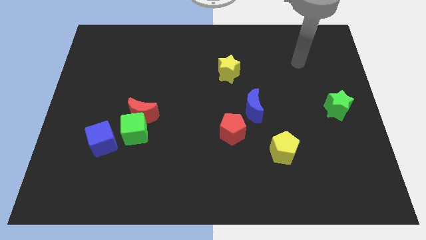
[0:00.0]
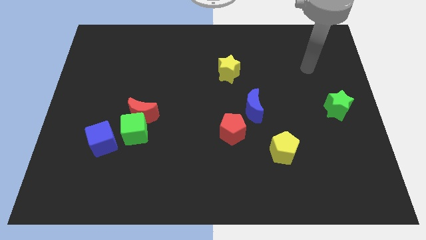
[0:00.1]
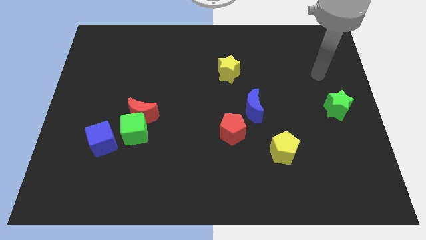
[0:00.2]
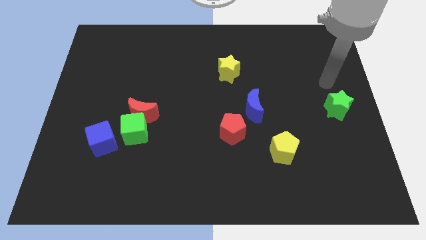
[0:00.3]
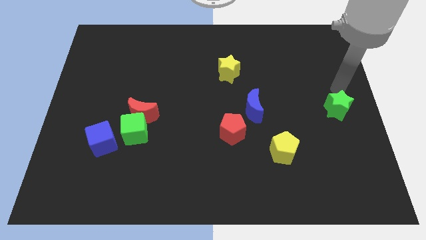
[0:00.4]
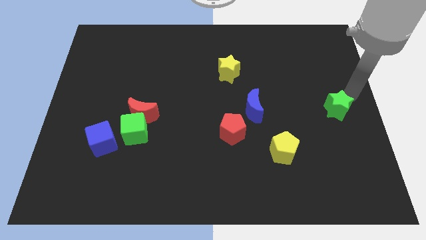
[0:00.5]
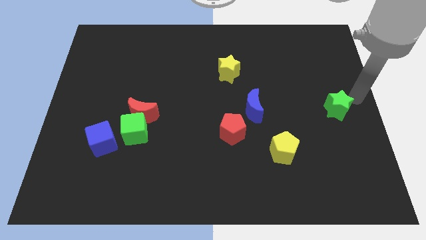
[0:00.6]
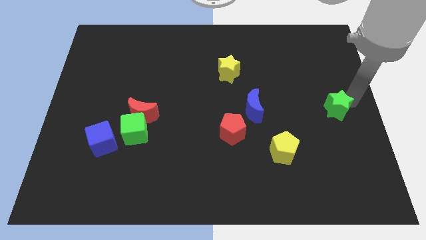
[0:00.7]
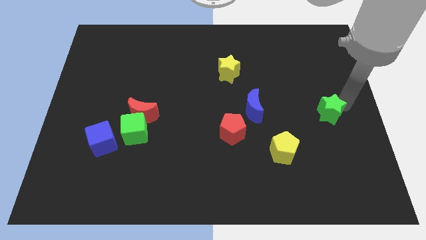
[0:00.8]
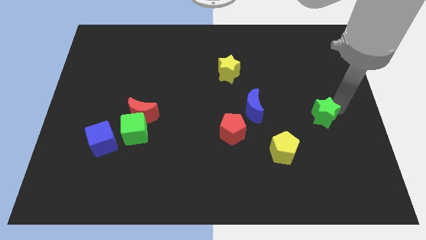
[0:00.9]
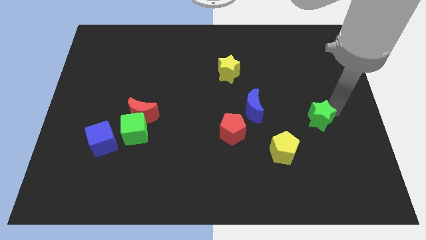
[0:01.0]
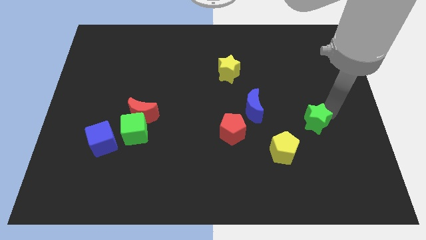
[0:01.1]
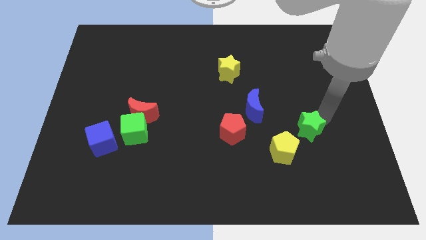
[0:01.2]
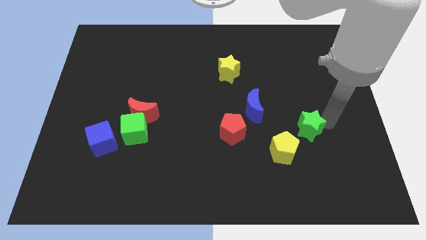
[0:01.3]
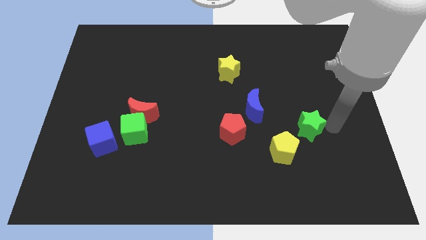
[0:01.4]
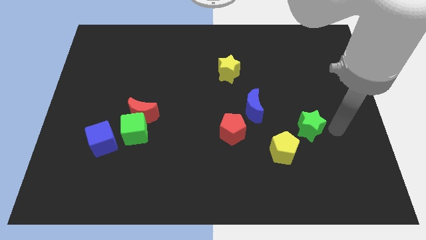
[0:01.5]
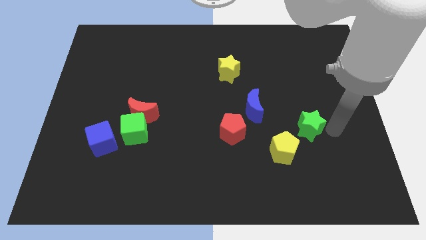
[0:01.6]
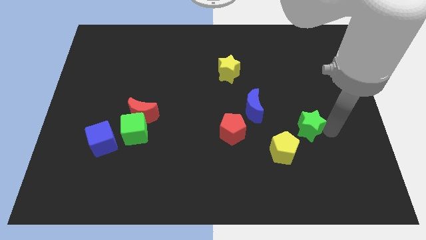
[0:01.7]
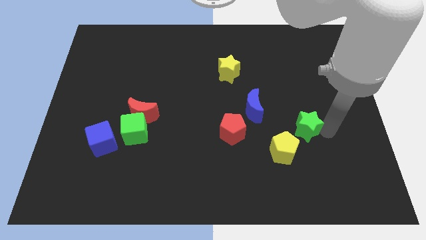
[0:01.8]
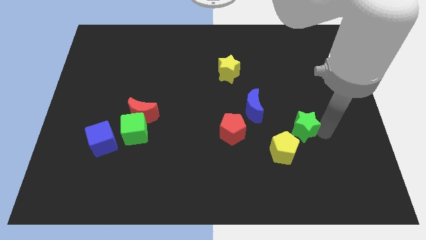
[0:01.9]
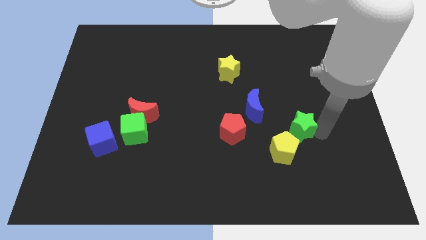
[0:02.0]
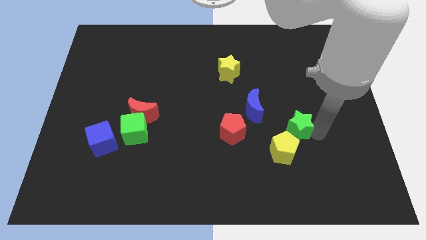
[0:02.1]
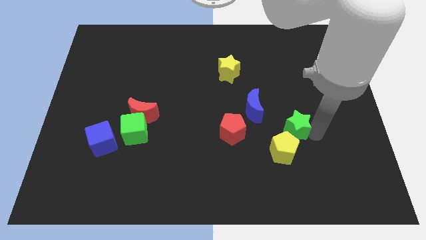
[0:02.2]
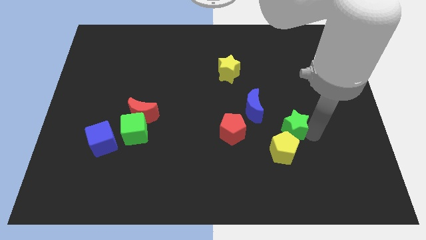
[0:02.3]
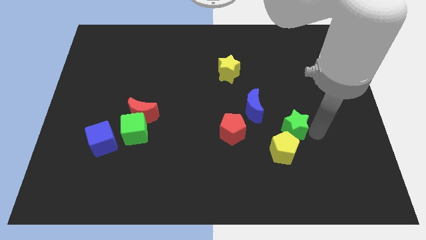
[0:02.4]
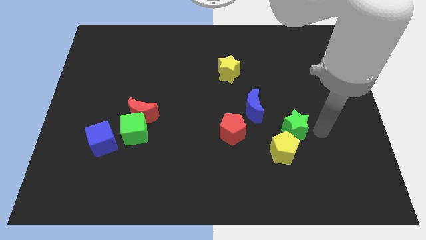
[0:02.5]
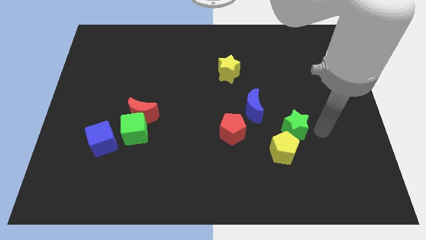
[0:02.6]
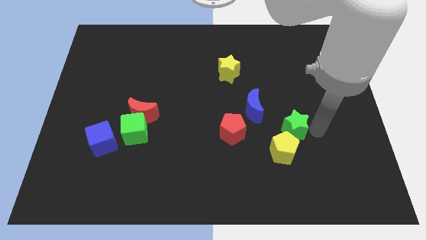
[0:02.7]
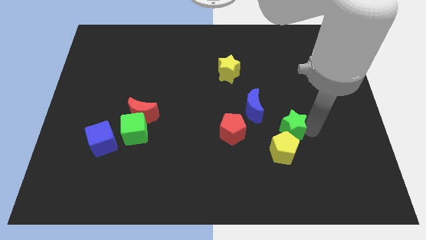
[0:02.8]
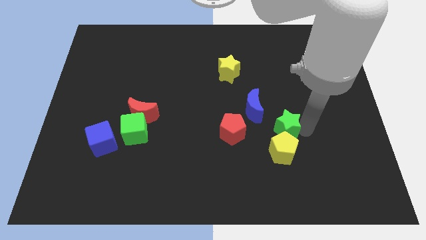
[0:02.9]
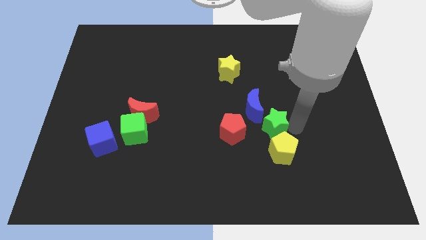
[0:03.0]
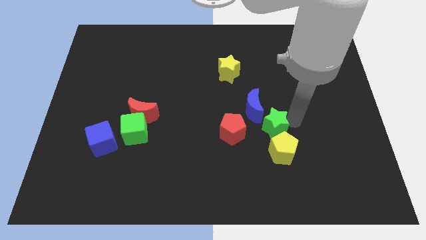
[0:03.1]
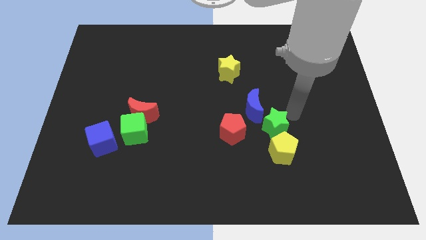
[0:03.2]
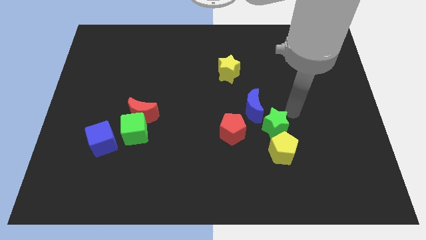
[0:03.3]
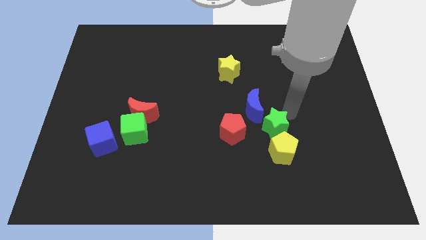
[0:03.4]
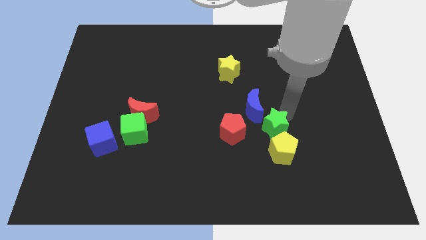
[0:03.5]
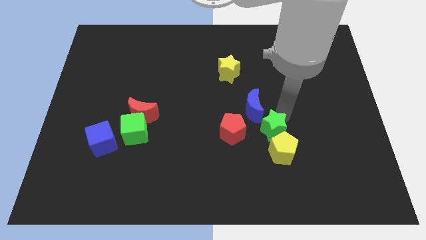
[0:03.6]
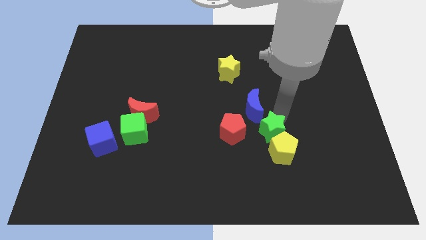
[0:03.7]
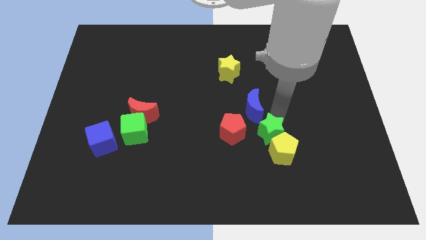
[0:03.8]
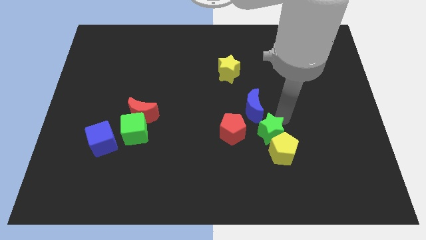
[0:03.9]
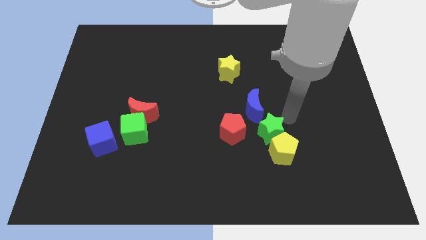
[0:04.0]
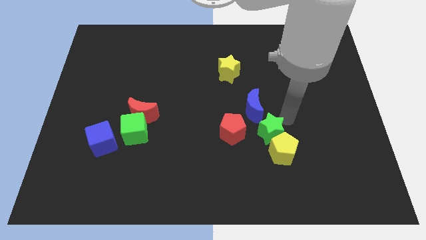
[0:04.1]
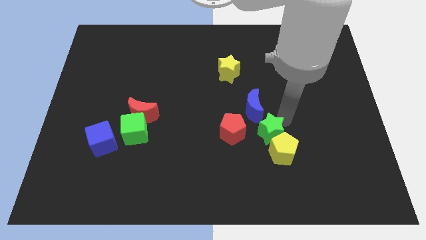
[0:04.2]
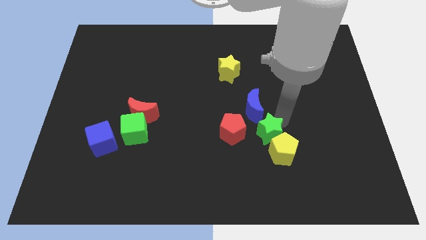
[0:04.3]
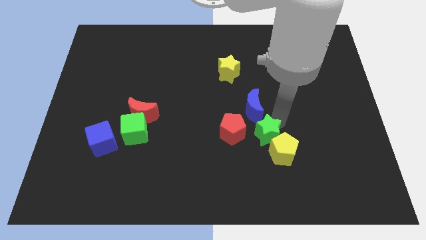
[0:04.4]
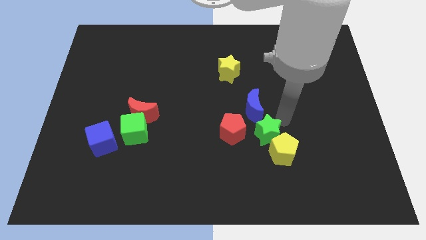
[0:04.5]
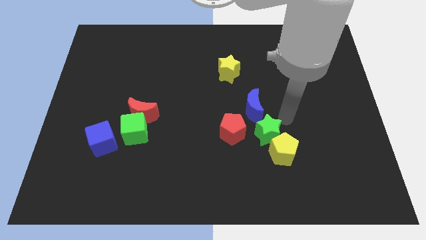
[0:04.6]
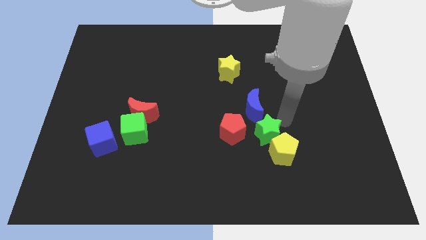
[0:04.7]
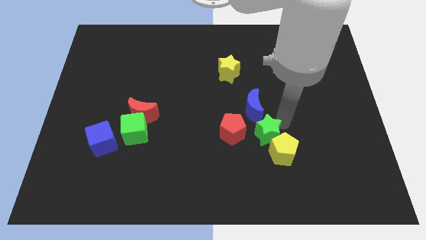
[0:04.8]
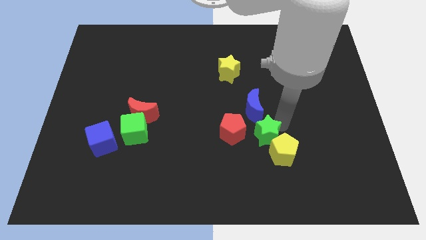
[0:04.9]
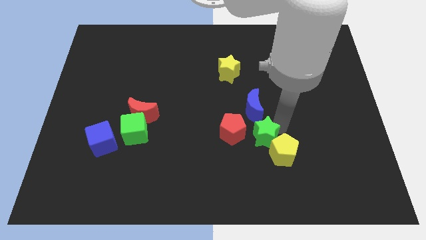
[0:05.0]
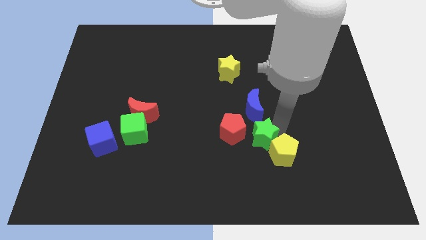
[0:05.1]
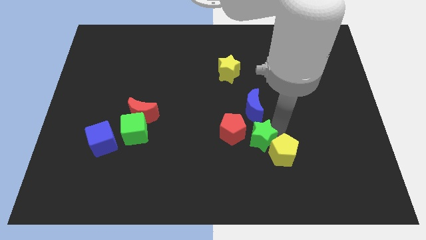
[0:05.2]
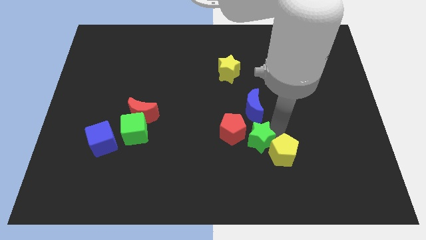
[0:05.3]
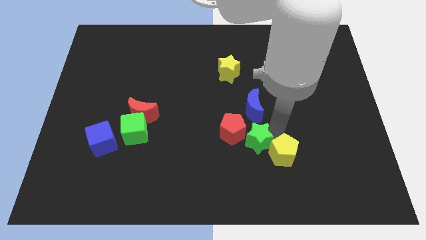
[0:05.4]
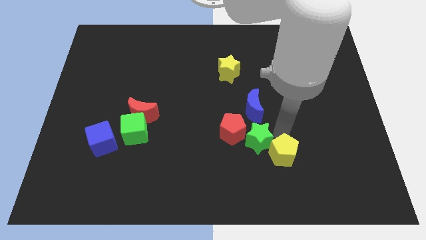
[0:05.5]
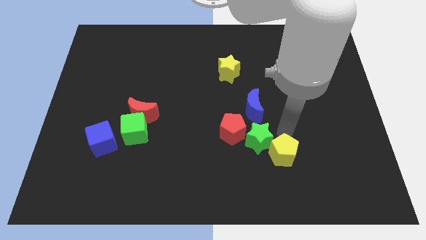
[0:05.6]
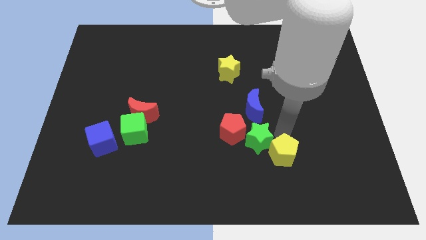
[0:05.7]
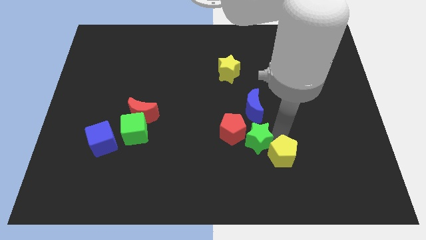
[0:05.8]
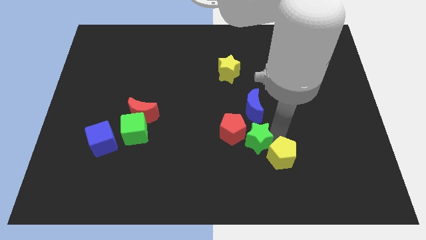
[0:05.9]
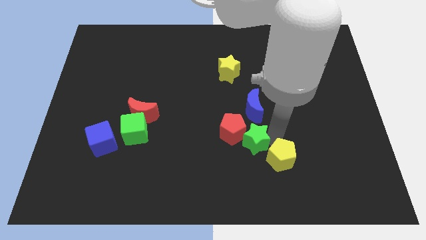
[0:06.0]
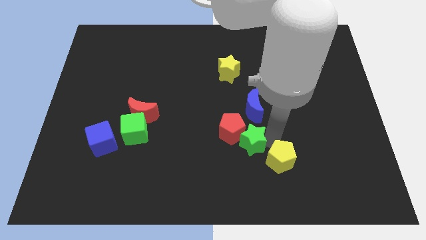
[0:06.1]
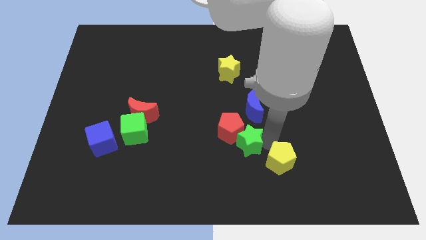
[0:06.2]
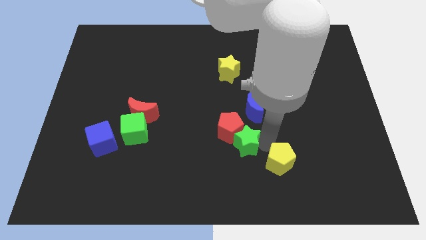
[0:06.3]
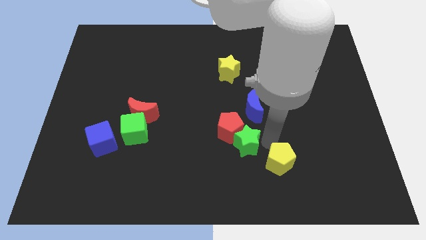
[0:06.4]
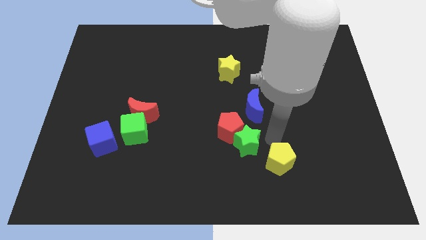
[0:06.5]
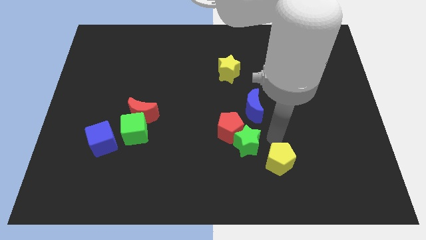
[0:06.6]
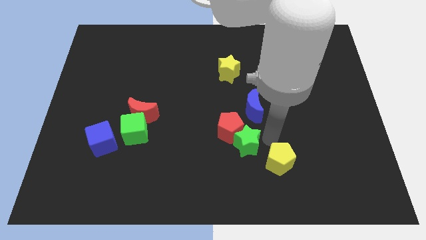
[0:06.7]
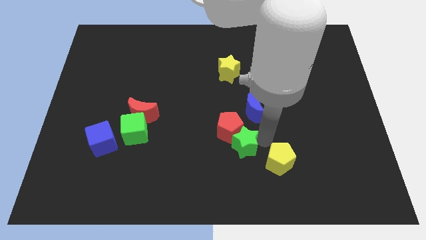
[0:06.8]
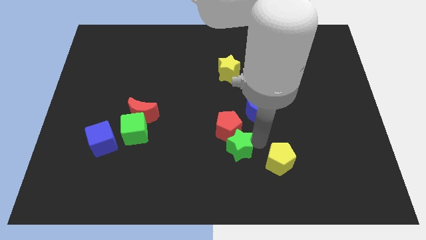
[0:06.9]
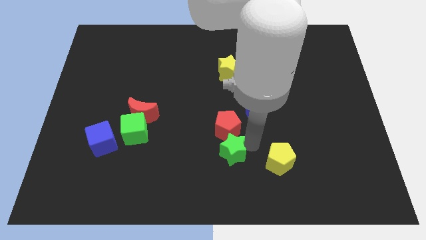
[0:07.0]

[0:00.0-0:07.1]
put the green star to the bottom left of the red pentagon

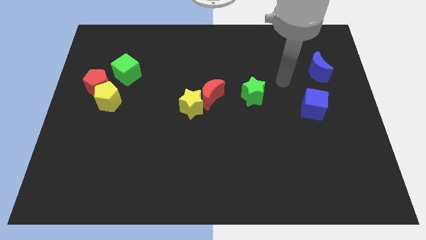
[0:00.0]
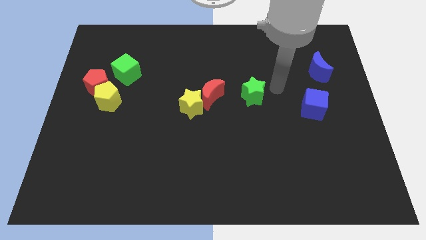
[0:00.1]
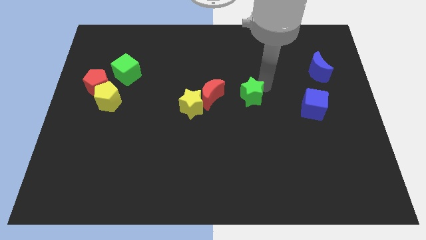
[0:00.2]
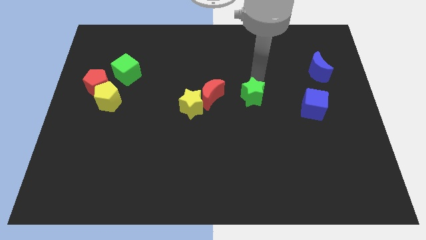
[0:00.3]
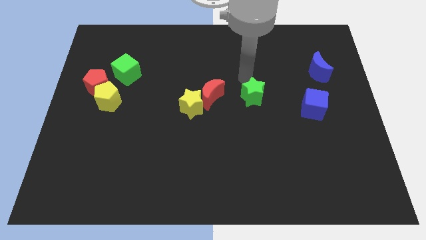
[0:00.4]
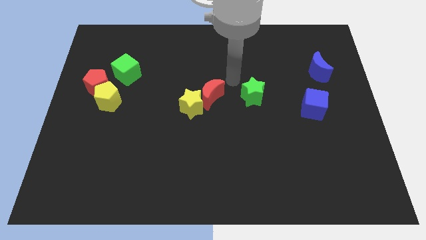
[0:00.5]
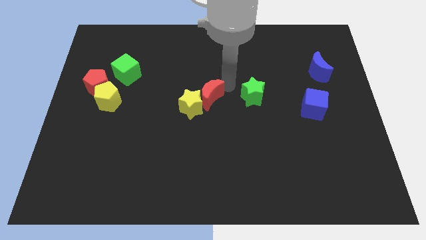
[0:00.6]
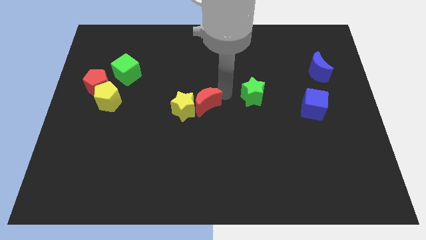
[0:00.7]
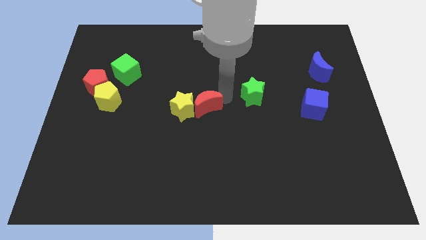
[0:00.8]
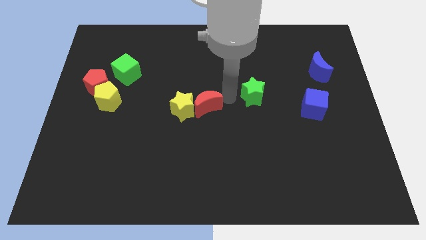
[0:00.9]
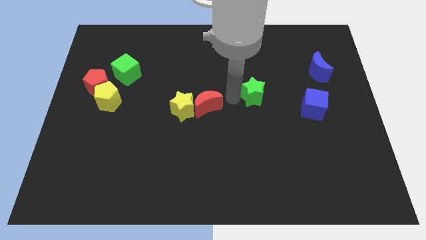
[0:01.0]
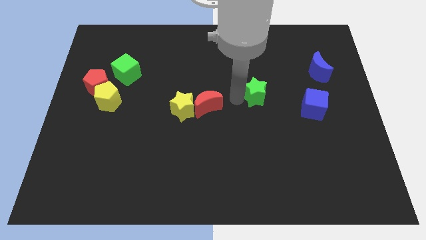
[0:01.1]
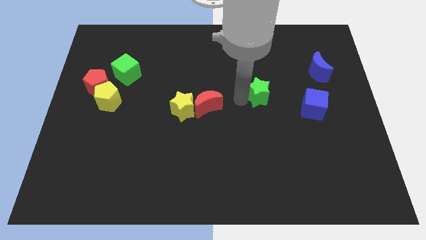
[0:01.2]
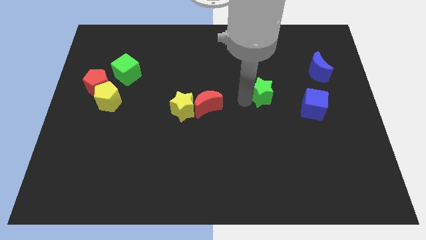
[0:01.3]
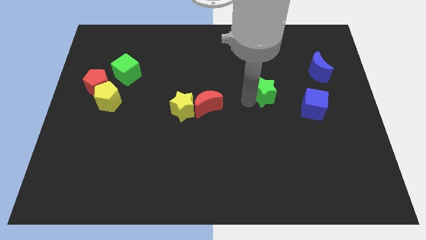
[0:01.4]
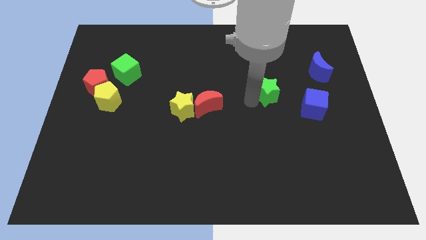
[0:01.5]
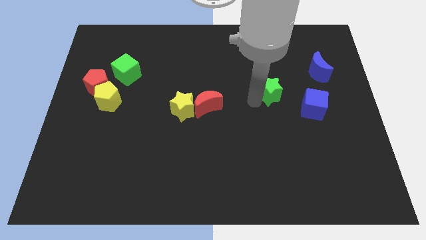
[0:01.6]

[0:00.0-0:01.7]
slide the green star to the top left of the blue cube
